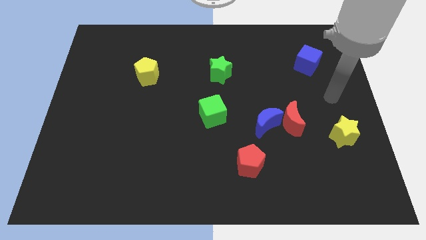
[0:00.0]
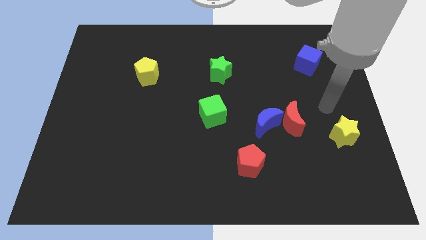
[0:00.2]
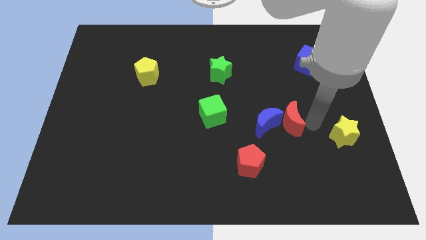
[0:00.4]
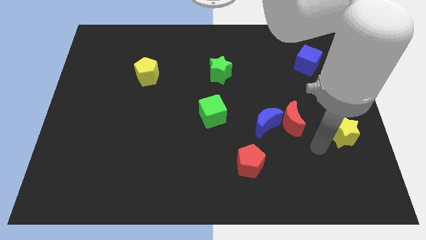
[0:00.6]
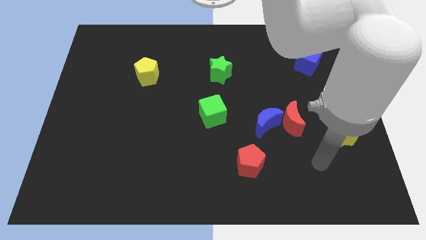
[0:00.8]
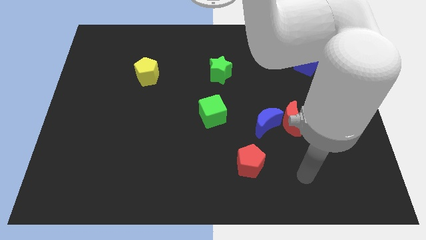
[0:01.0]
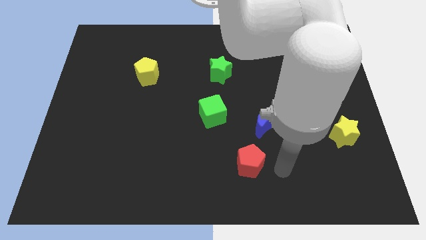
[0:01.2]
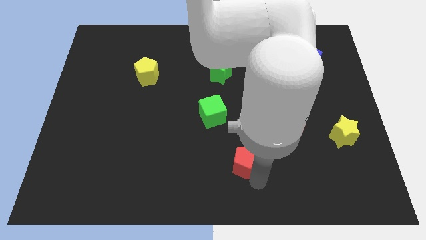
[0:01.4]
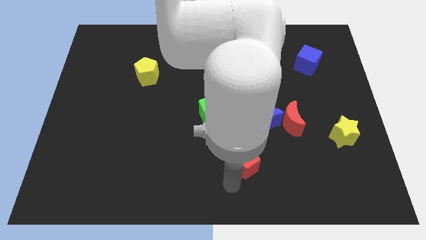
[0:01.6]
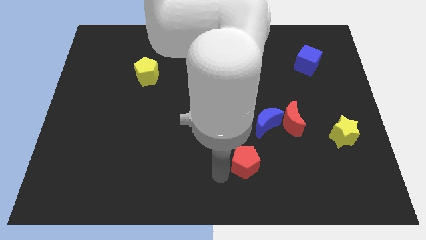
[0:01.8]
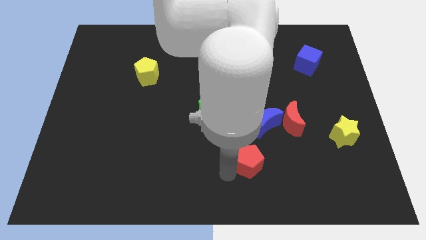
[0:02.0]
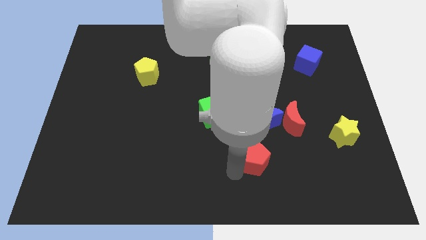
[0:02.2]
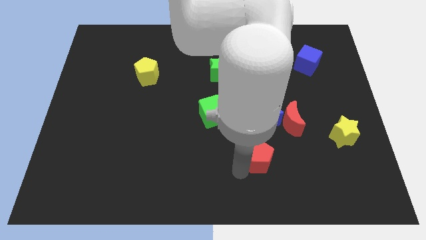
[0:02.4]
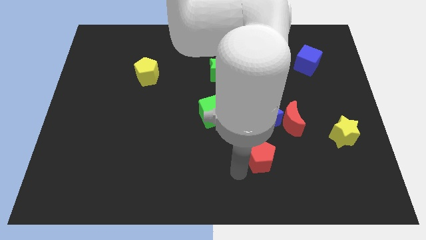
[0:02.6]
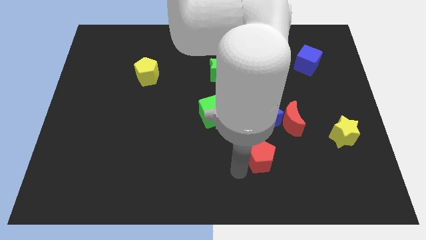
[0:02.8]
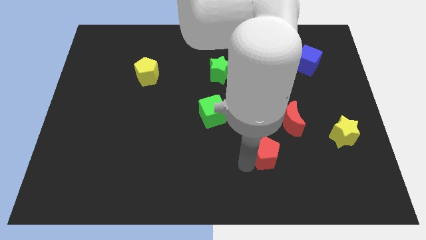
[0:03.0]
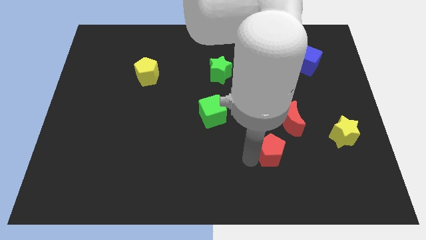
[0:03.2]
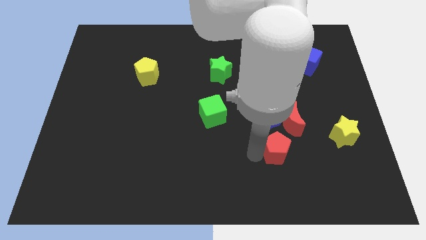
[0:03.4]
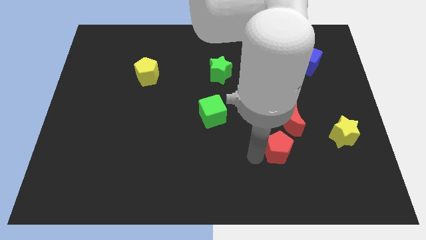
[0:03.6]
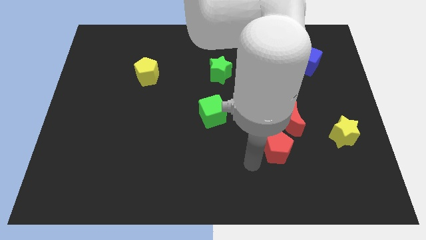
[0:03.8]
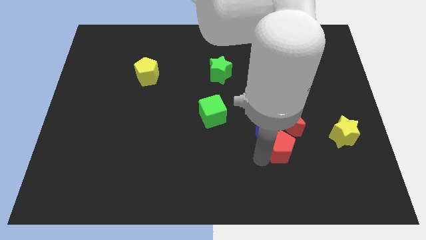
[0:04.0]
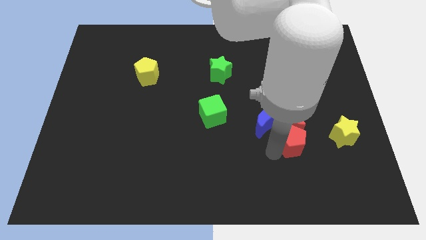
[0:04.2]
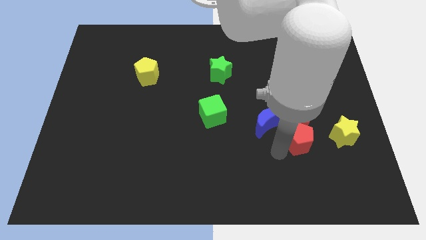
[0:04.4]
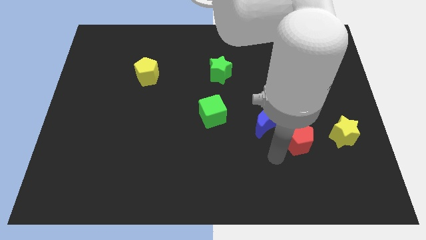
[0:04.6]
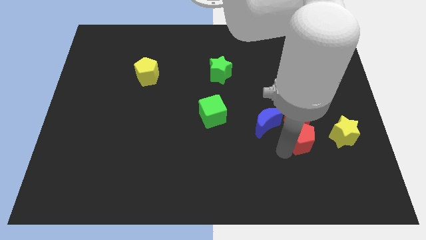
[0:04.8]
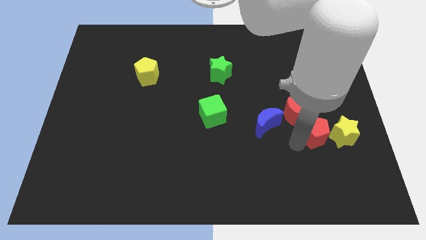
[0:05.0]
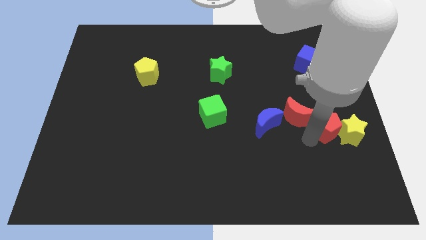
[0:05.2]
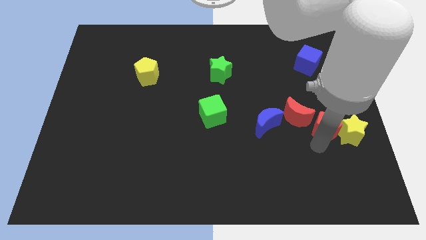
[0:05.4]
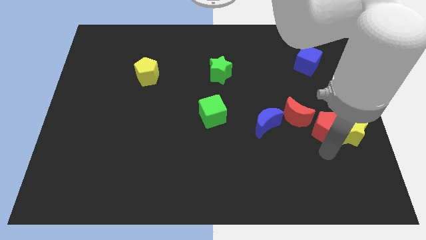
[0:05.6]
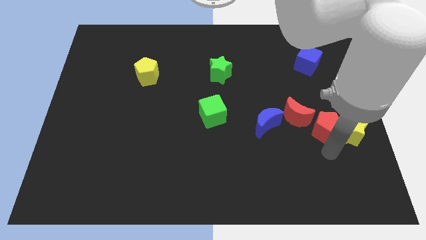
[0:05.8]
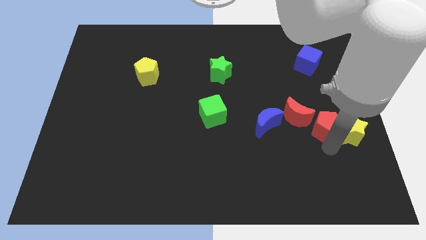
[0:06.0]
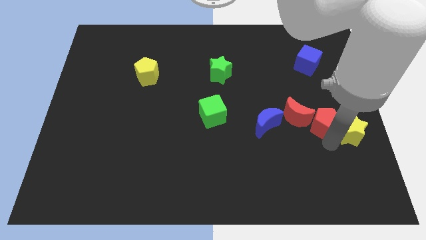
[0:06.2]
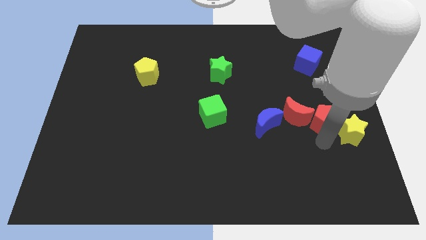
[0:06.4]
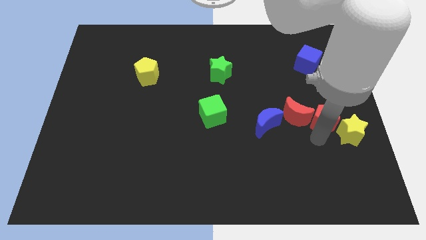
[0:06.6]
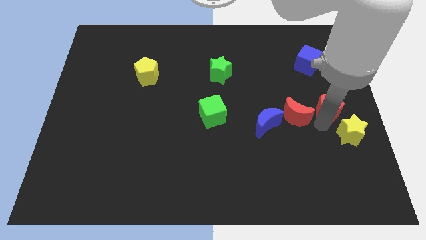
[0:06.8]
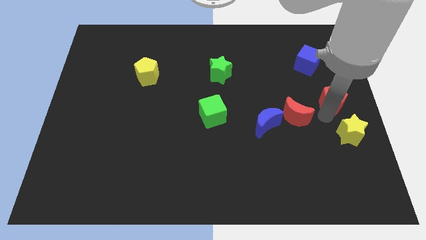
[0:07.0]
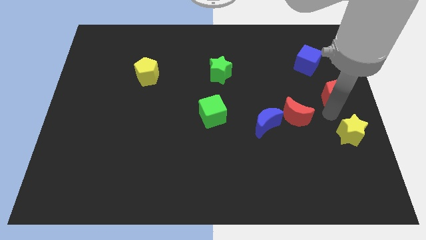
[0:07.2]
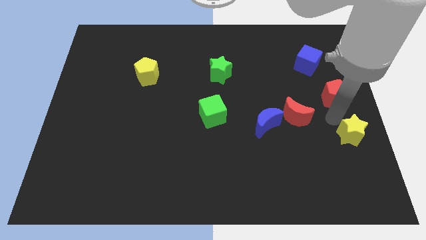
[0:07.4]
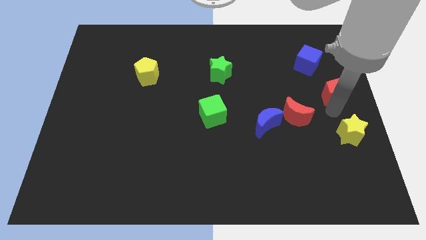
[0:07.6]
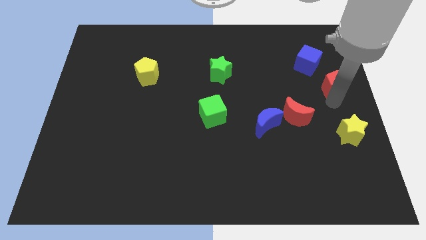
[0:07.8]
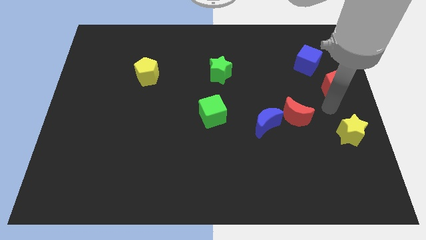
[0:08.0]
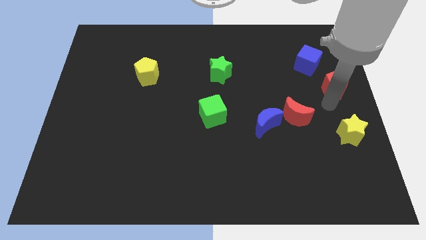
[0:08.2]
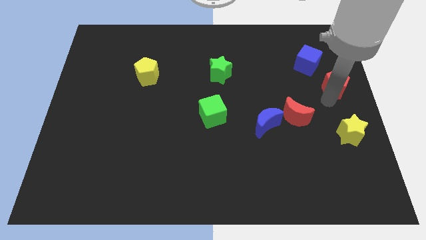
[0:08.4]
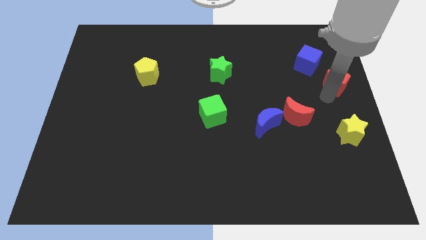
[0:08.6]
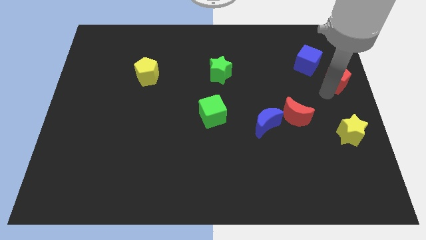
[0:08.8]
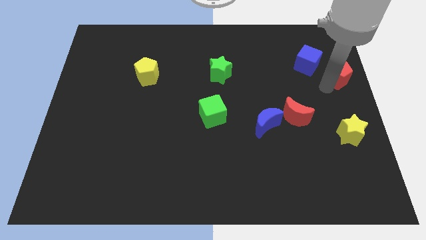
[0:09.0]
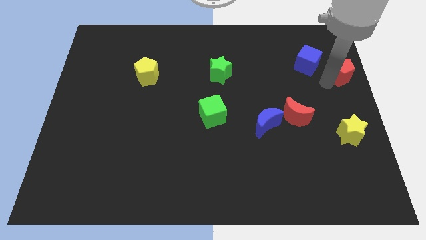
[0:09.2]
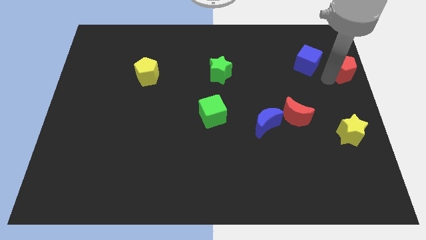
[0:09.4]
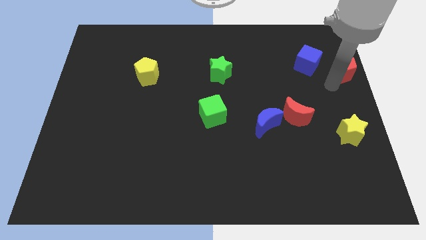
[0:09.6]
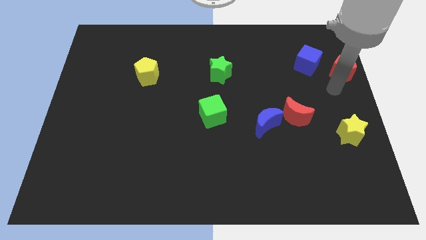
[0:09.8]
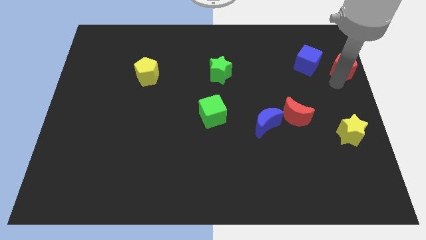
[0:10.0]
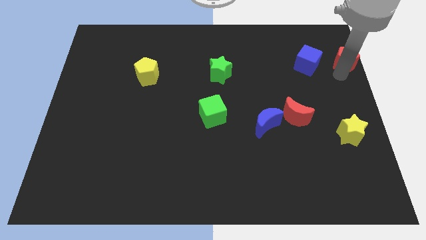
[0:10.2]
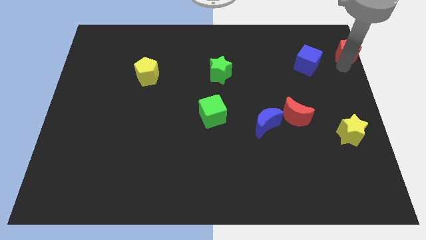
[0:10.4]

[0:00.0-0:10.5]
slide the red pentagon to the top right

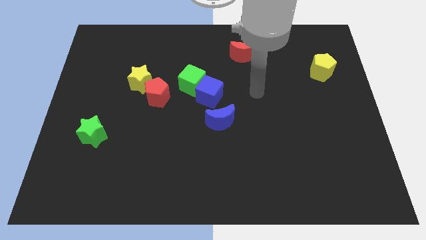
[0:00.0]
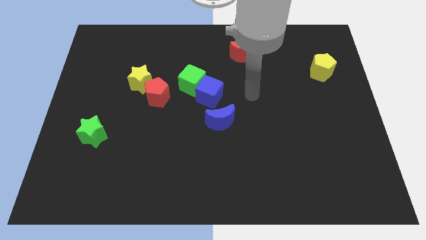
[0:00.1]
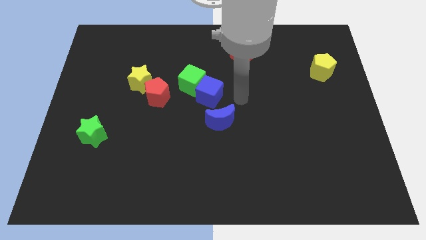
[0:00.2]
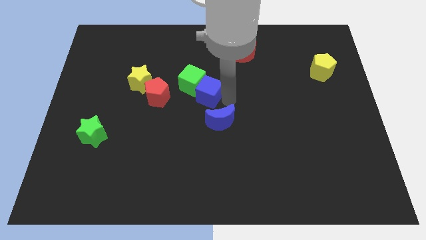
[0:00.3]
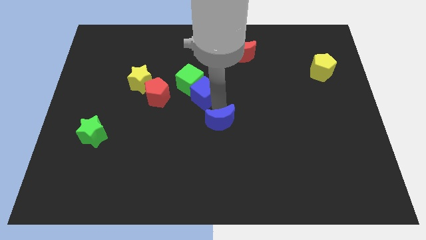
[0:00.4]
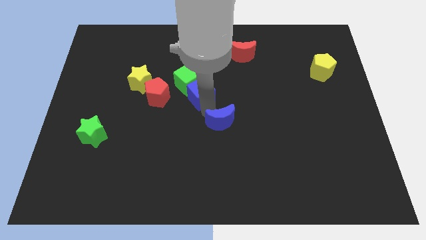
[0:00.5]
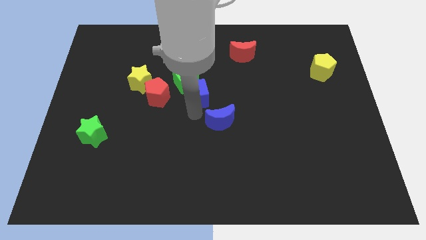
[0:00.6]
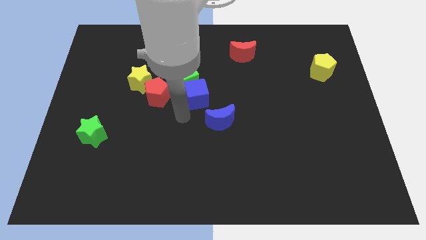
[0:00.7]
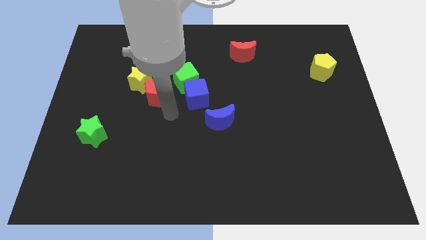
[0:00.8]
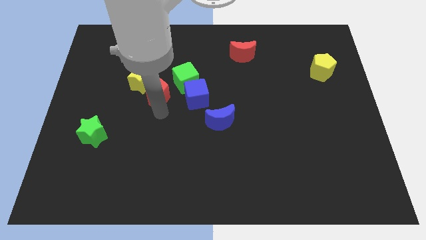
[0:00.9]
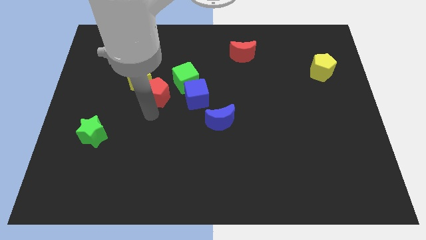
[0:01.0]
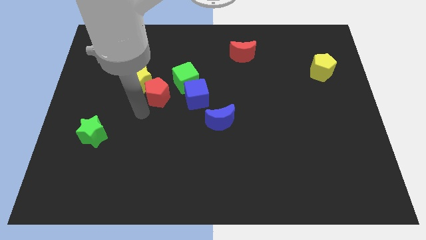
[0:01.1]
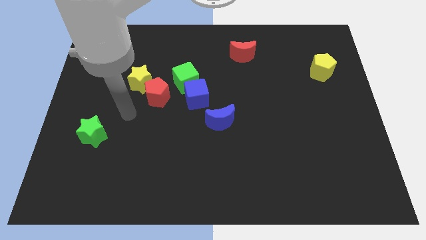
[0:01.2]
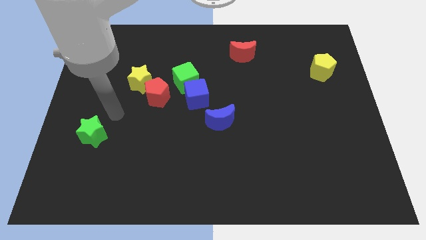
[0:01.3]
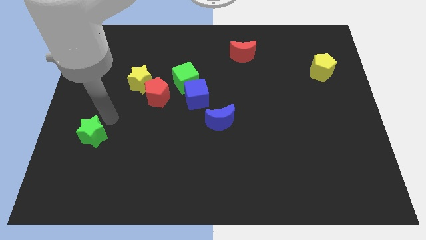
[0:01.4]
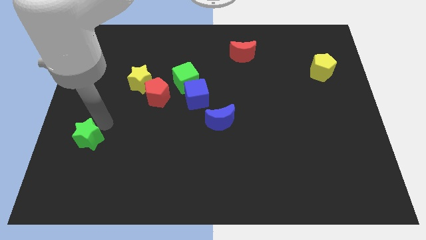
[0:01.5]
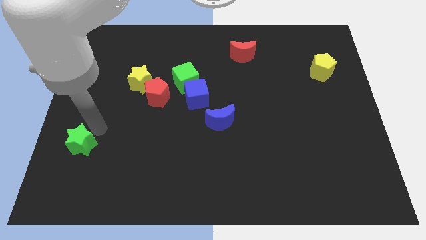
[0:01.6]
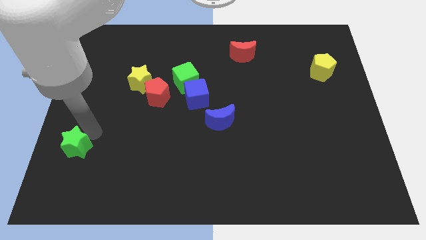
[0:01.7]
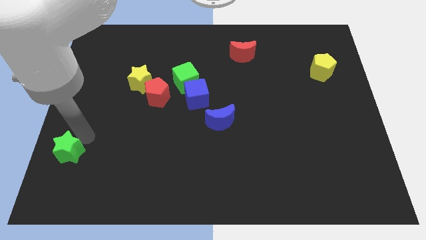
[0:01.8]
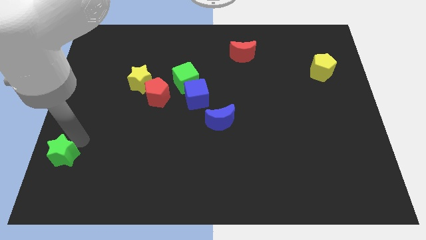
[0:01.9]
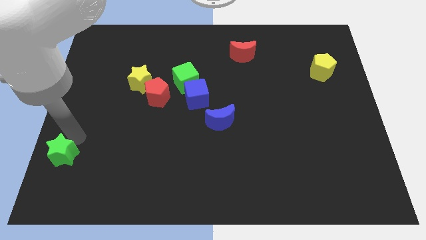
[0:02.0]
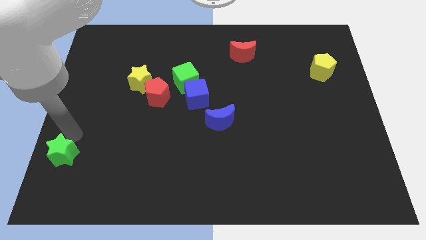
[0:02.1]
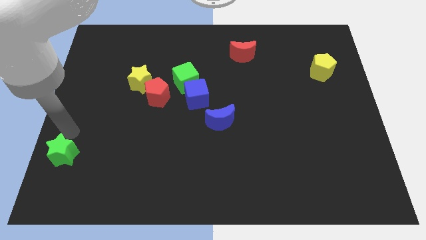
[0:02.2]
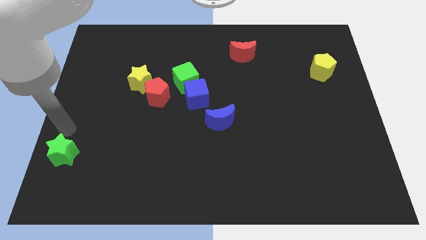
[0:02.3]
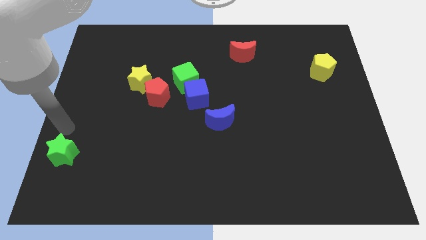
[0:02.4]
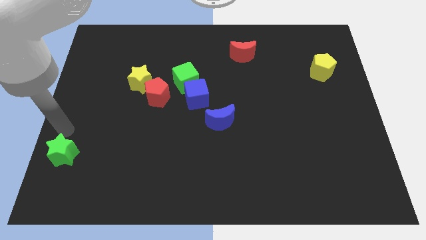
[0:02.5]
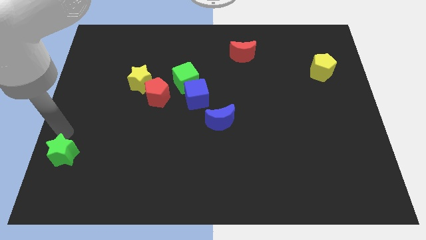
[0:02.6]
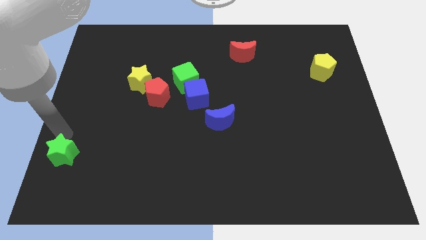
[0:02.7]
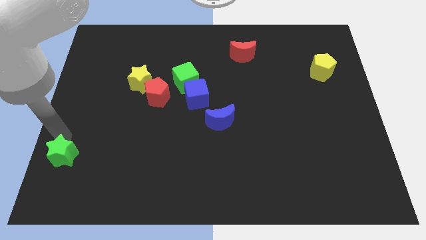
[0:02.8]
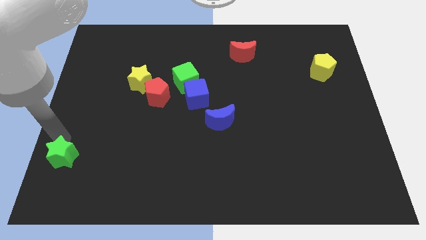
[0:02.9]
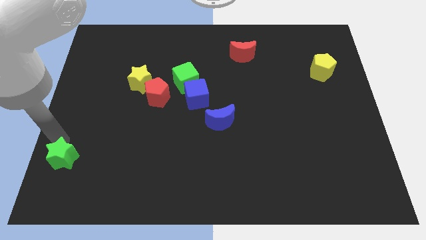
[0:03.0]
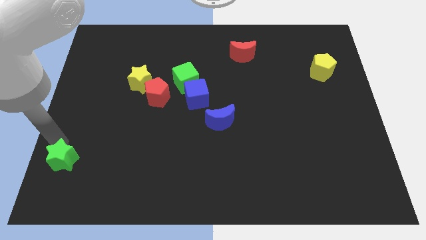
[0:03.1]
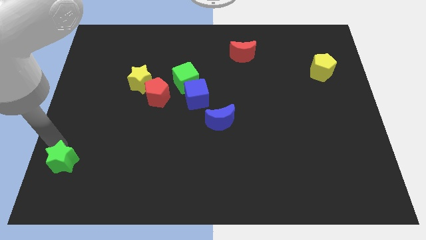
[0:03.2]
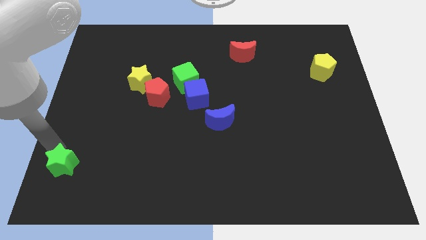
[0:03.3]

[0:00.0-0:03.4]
push the green star to the bottom left corner
